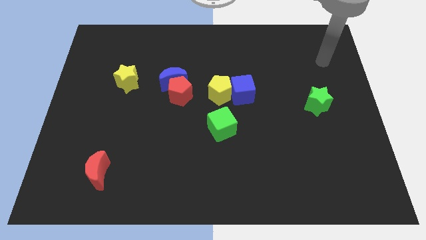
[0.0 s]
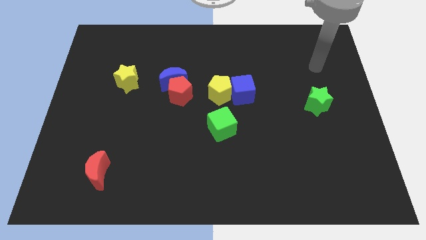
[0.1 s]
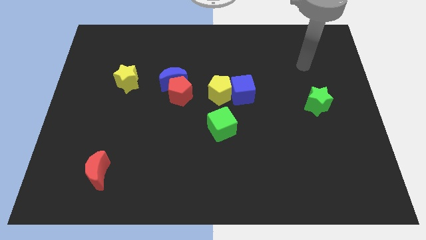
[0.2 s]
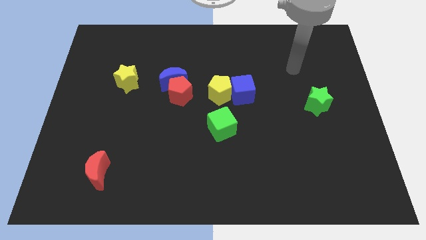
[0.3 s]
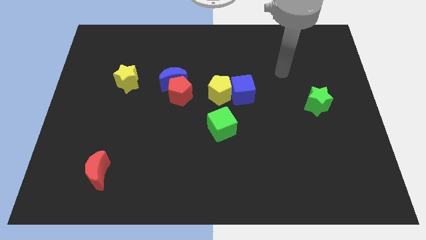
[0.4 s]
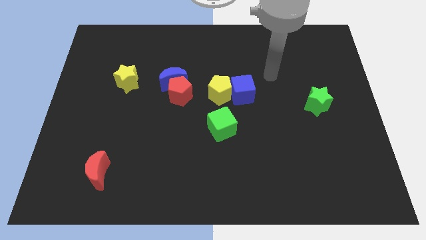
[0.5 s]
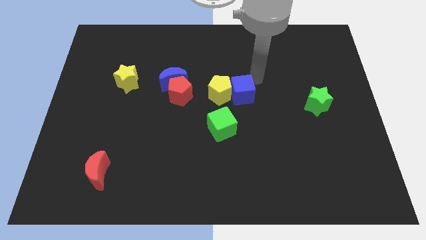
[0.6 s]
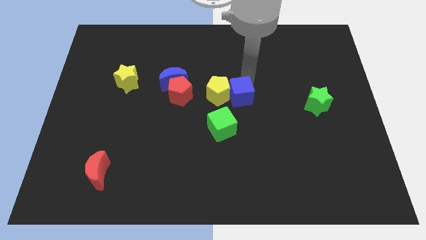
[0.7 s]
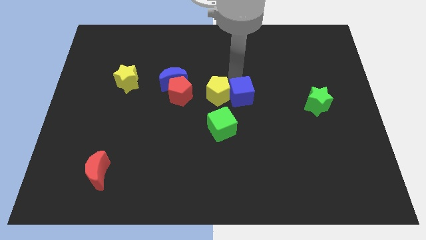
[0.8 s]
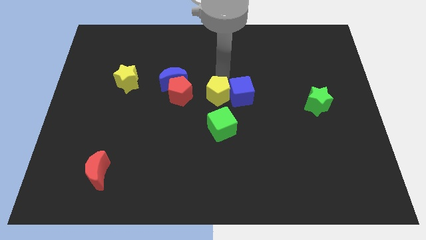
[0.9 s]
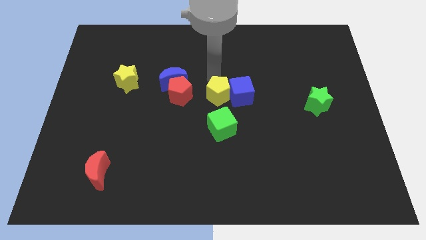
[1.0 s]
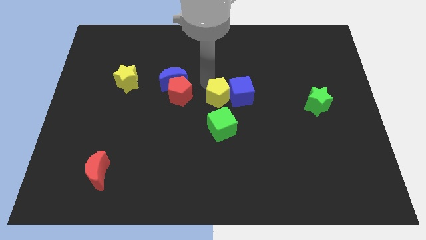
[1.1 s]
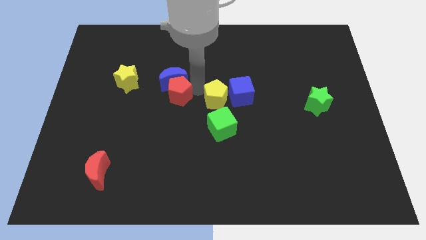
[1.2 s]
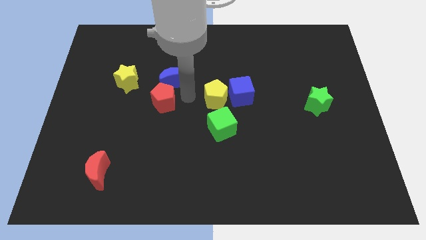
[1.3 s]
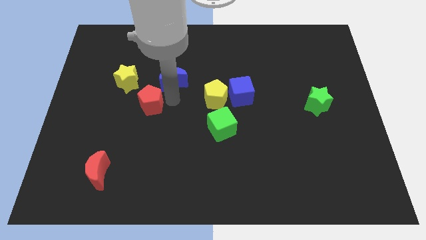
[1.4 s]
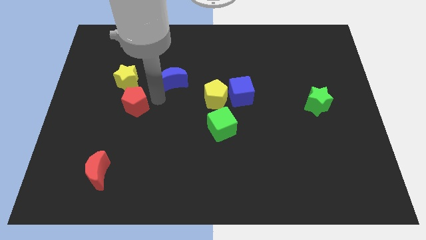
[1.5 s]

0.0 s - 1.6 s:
pull the blue moon apart from the red pentagon

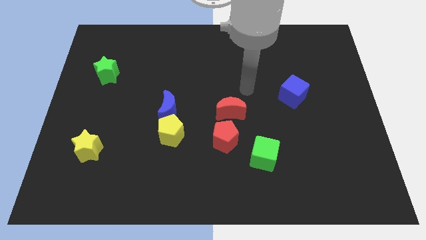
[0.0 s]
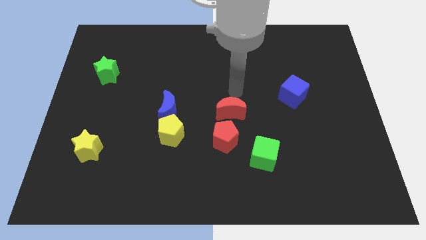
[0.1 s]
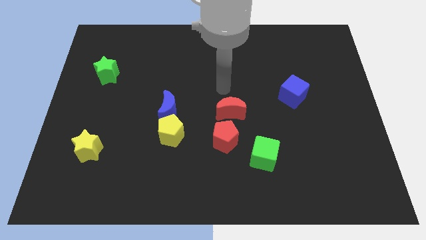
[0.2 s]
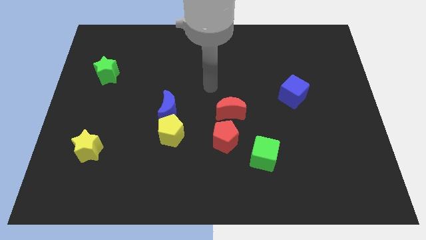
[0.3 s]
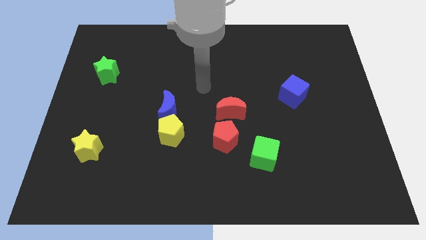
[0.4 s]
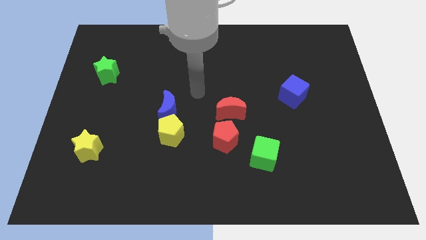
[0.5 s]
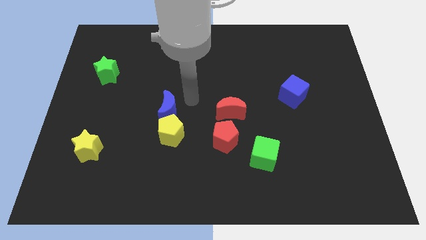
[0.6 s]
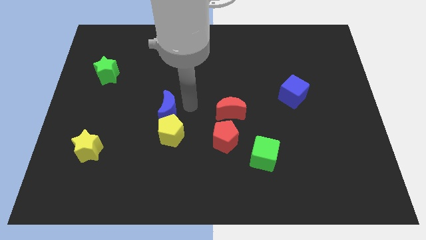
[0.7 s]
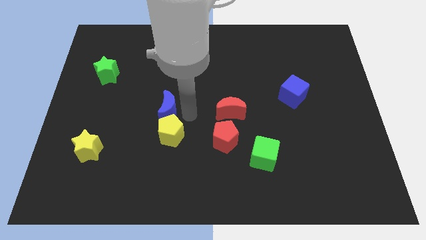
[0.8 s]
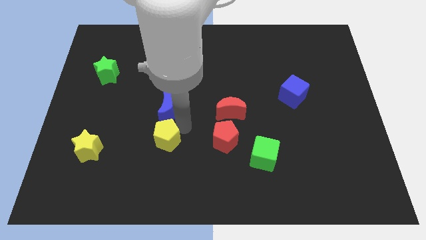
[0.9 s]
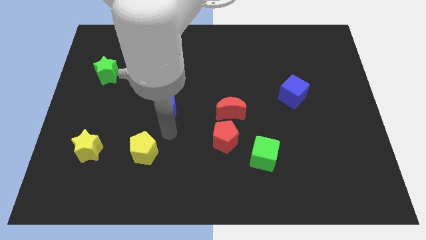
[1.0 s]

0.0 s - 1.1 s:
move the blue moon away from the yellow pentagon

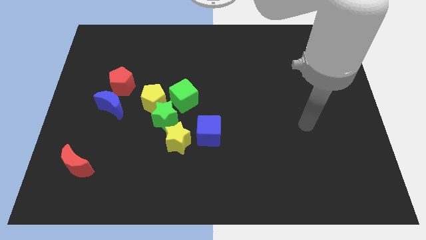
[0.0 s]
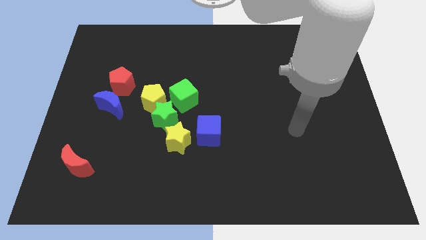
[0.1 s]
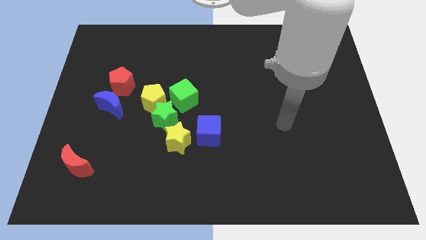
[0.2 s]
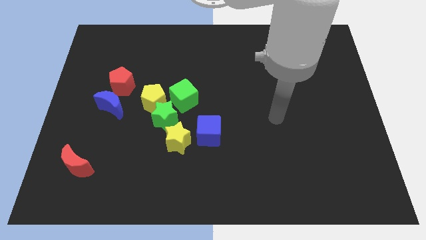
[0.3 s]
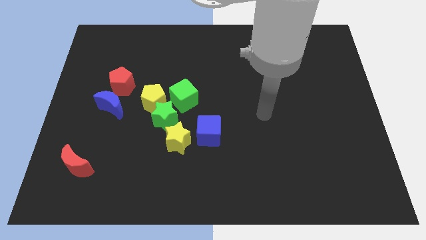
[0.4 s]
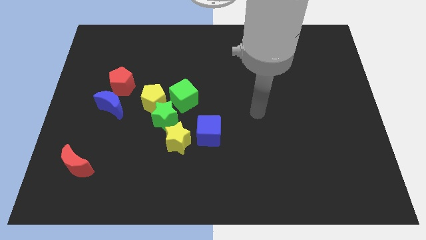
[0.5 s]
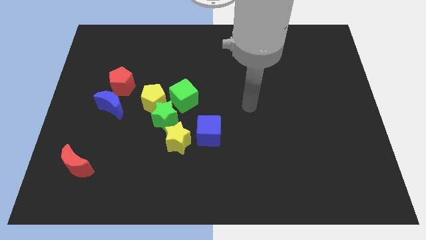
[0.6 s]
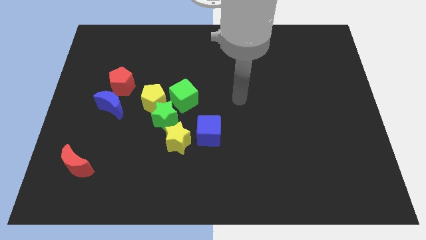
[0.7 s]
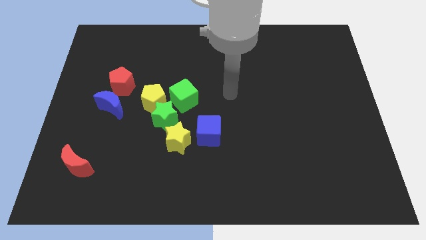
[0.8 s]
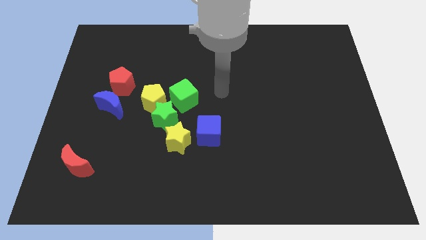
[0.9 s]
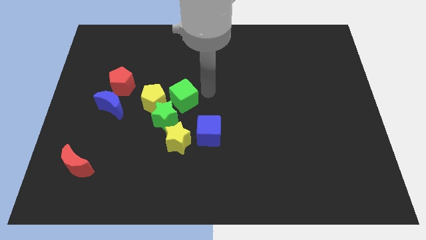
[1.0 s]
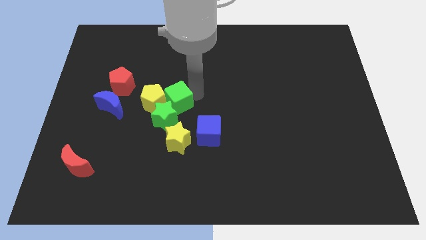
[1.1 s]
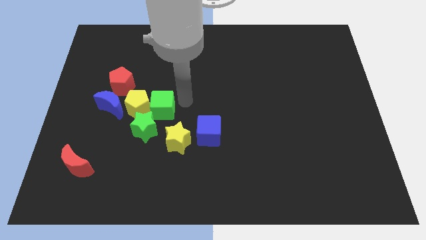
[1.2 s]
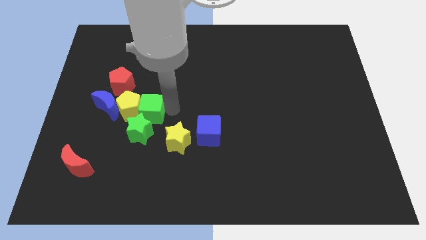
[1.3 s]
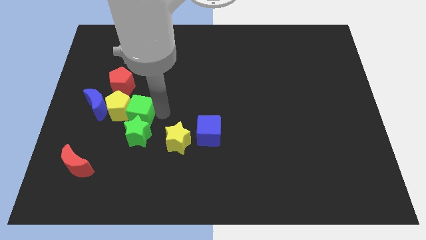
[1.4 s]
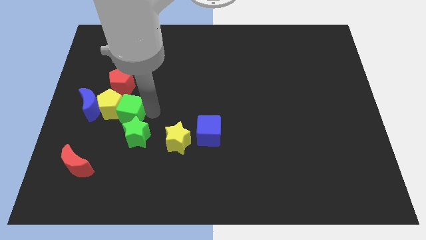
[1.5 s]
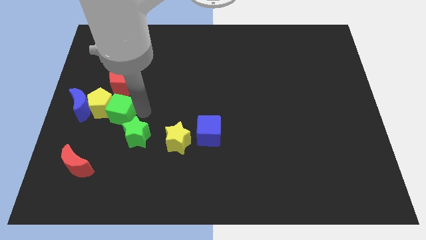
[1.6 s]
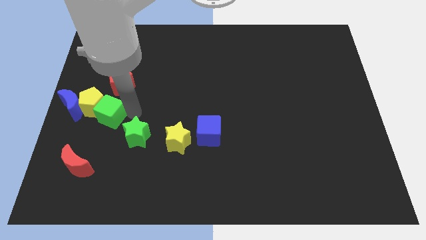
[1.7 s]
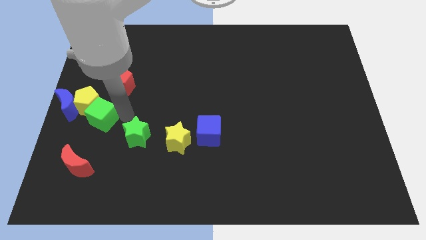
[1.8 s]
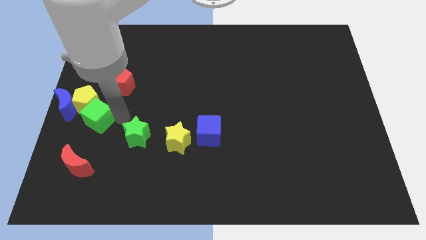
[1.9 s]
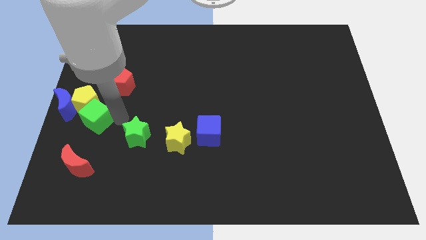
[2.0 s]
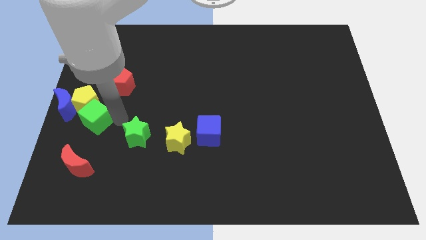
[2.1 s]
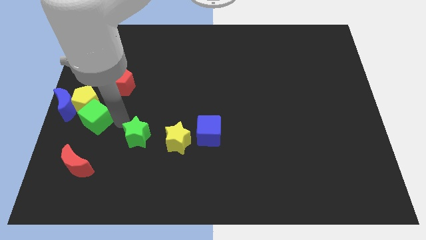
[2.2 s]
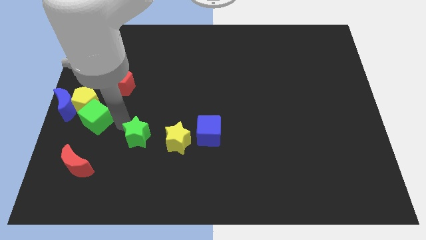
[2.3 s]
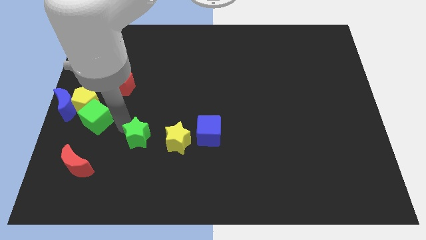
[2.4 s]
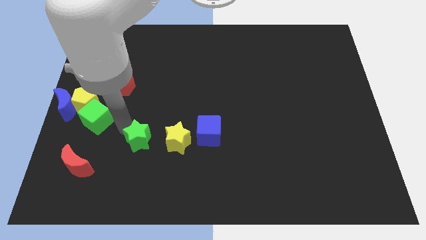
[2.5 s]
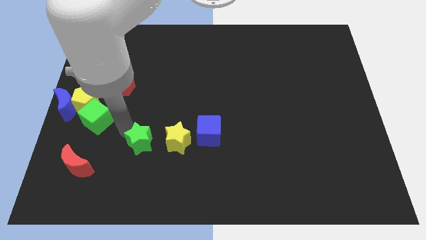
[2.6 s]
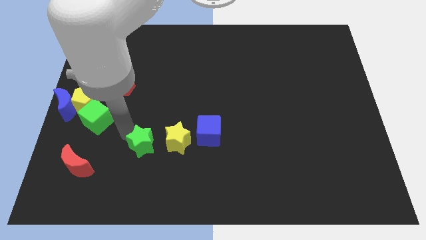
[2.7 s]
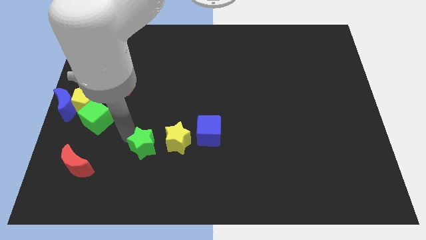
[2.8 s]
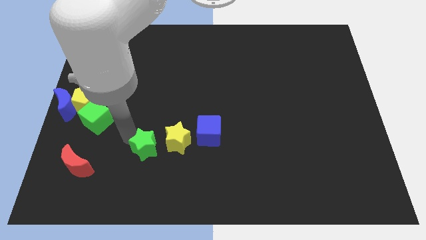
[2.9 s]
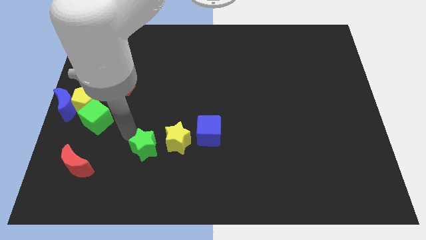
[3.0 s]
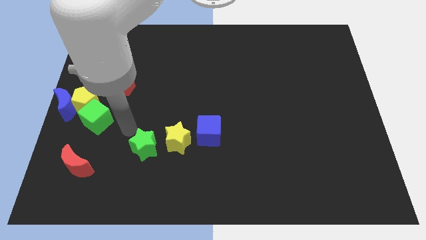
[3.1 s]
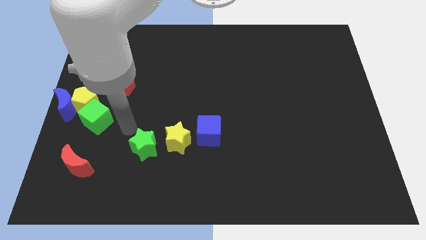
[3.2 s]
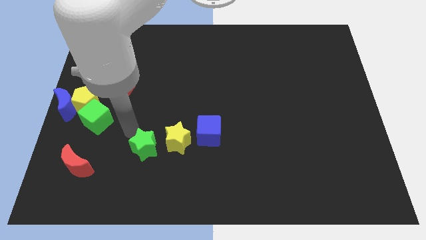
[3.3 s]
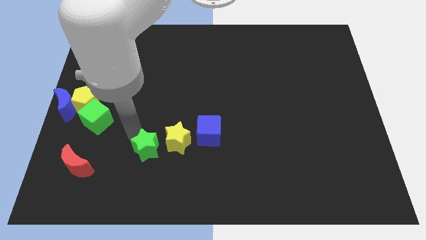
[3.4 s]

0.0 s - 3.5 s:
move the green star away from the group of blocks

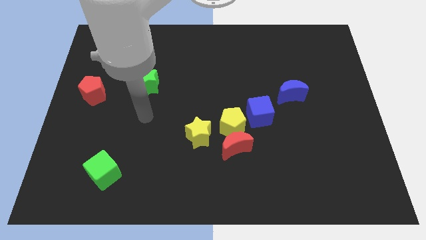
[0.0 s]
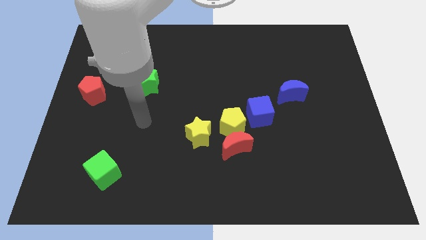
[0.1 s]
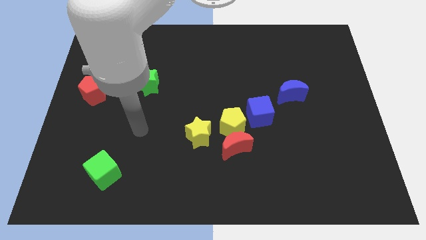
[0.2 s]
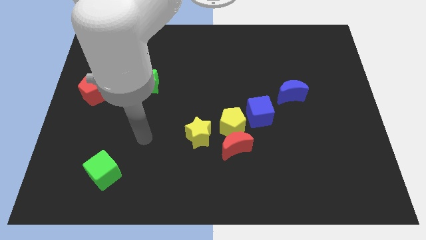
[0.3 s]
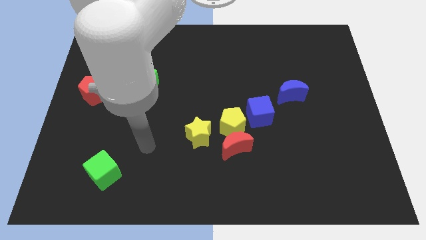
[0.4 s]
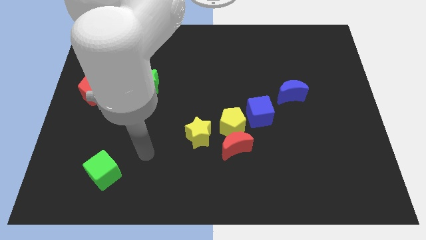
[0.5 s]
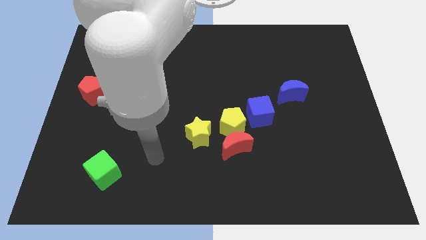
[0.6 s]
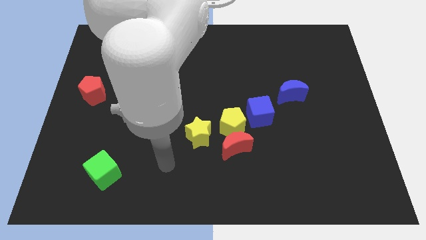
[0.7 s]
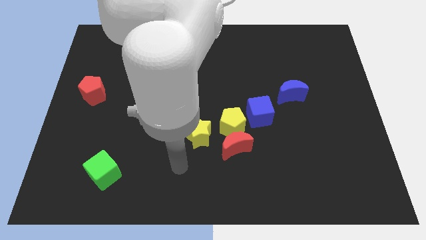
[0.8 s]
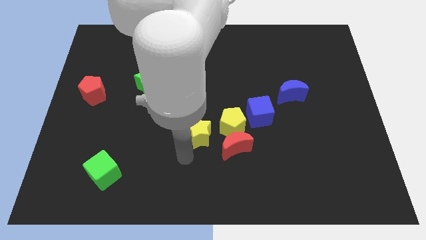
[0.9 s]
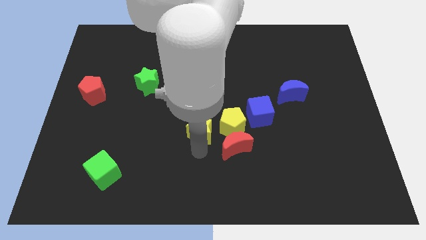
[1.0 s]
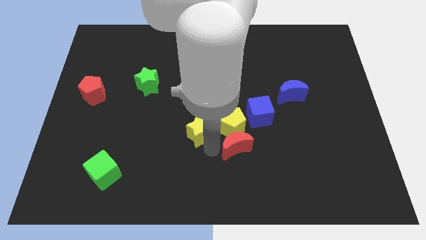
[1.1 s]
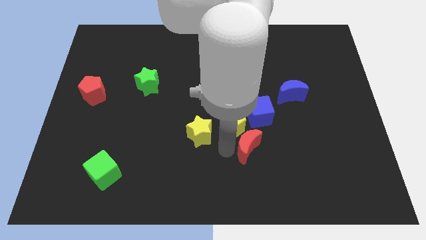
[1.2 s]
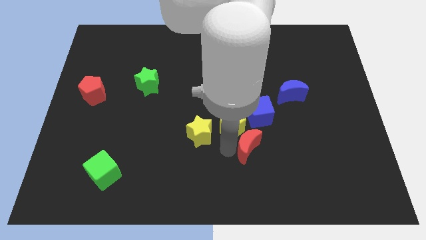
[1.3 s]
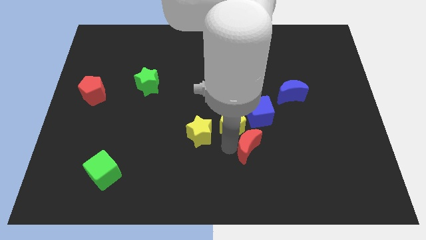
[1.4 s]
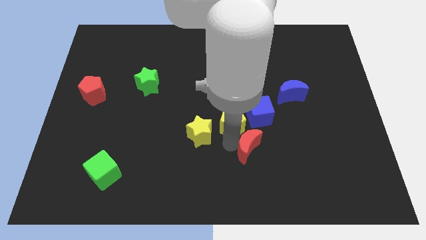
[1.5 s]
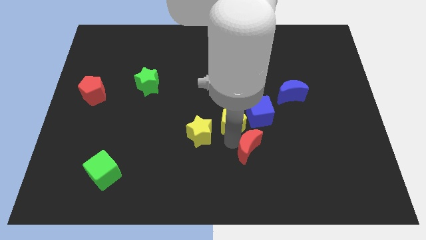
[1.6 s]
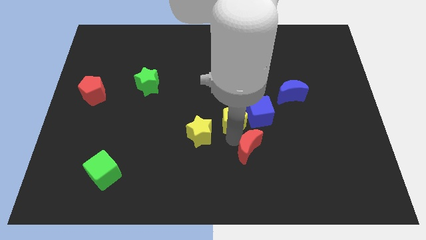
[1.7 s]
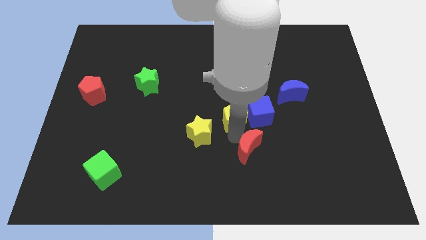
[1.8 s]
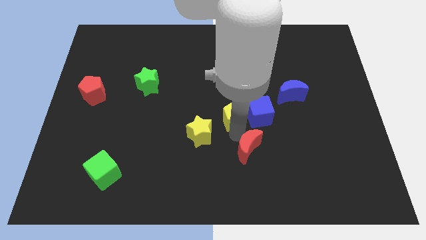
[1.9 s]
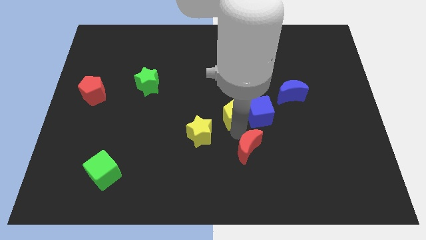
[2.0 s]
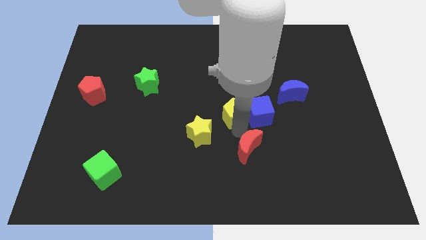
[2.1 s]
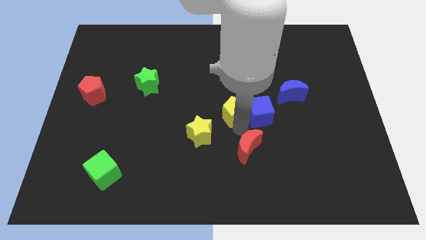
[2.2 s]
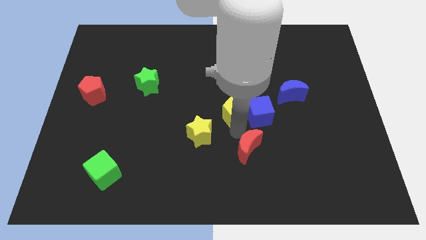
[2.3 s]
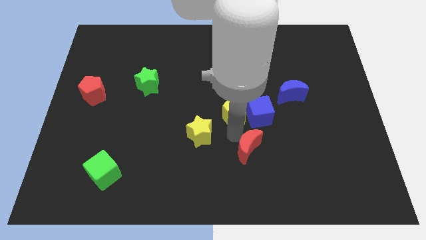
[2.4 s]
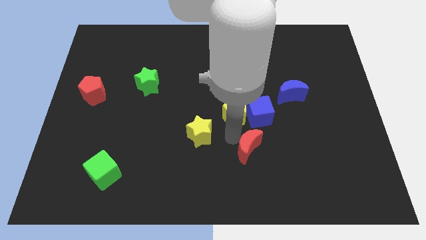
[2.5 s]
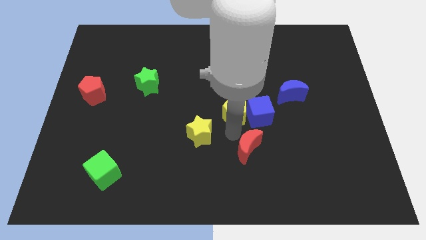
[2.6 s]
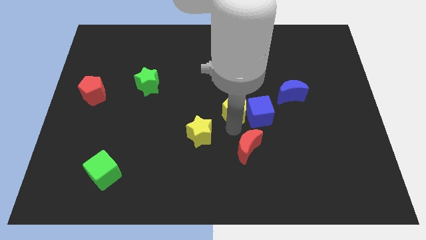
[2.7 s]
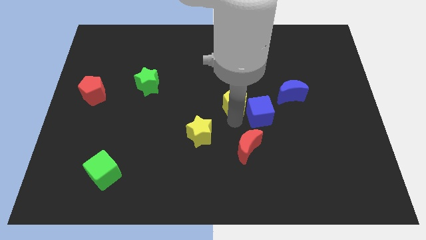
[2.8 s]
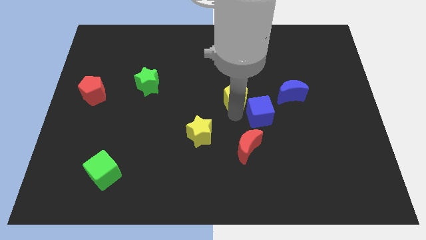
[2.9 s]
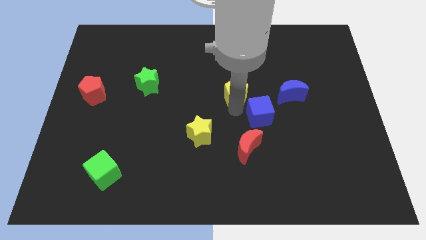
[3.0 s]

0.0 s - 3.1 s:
separate the yellow pentagon from the red moon, blue cube, and yellow star

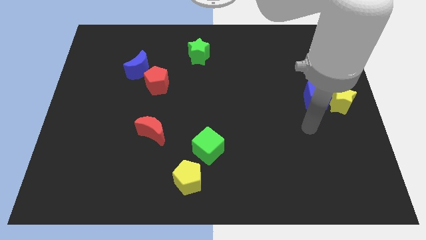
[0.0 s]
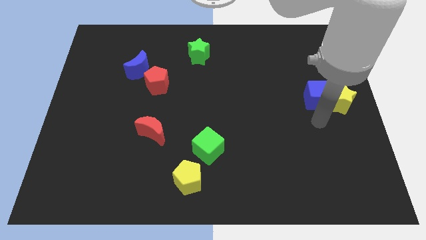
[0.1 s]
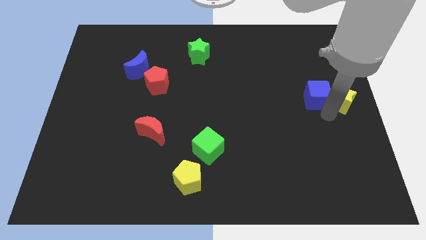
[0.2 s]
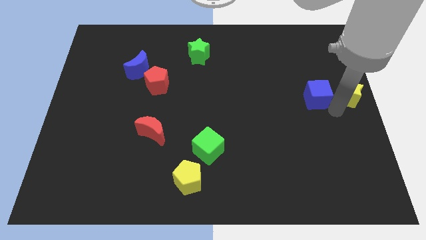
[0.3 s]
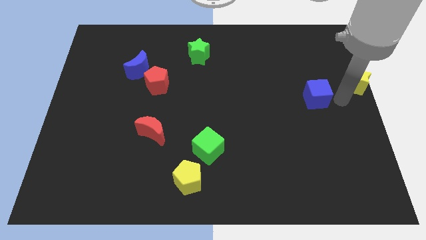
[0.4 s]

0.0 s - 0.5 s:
pull the blue cube apart from the yellow star
